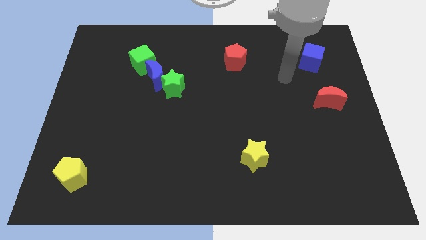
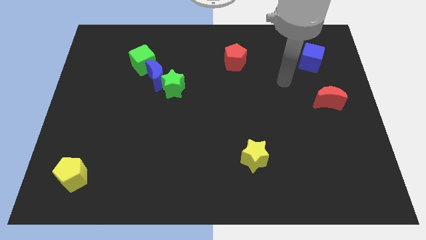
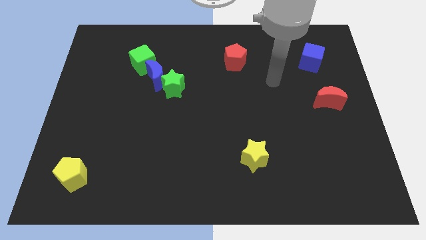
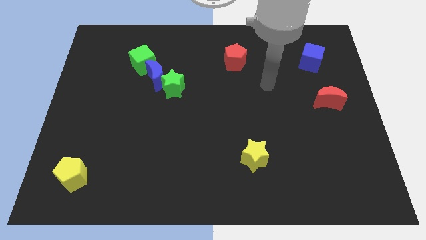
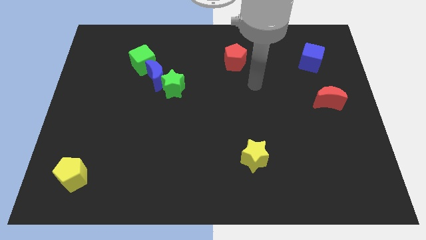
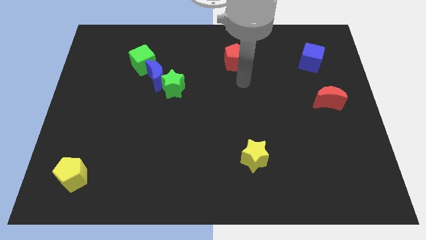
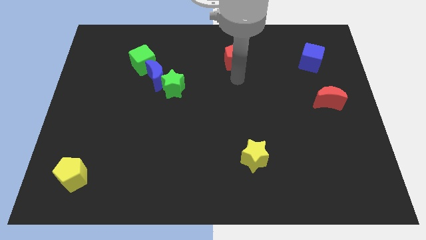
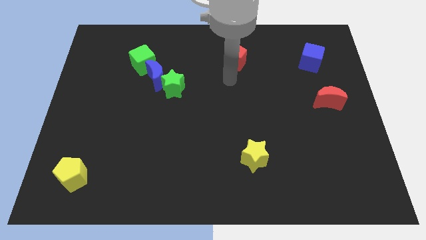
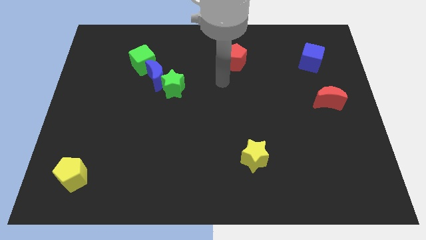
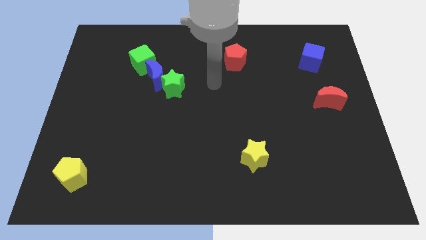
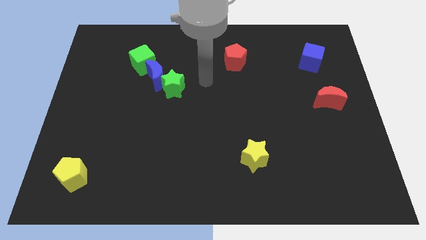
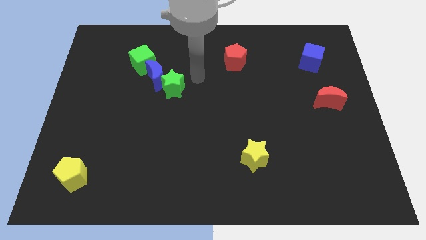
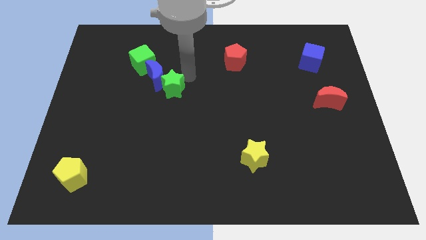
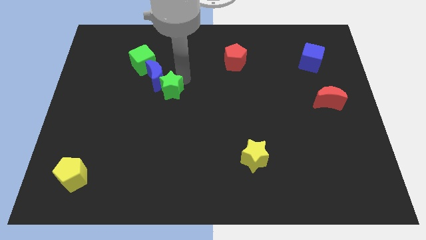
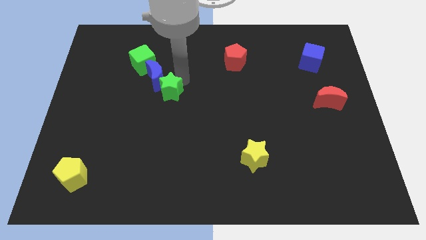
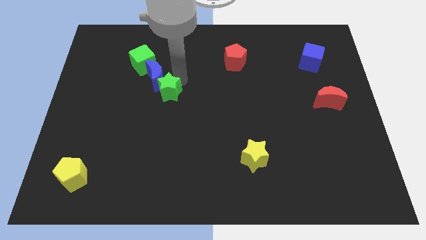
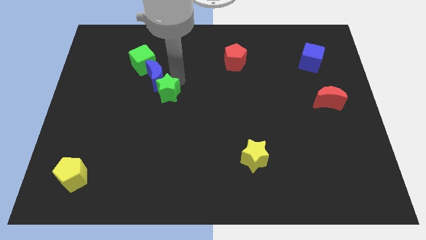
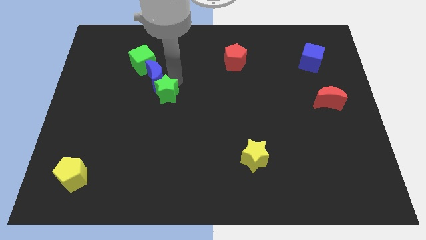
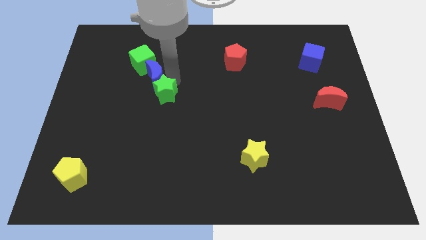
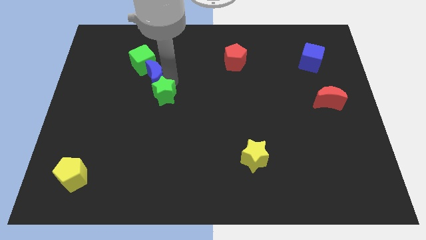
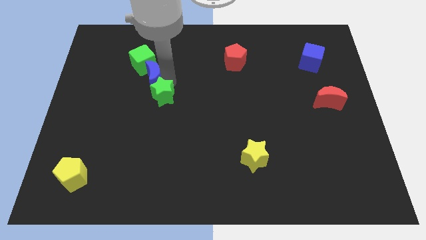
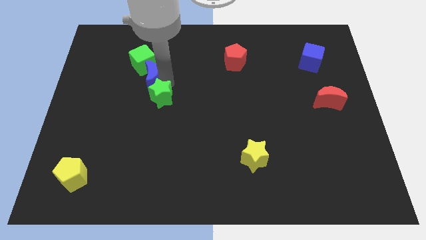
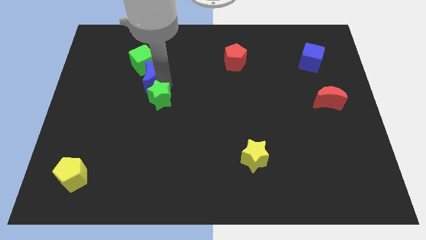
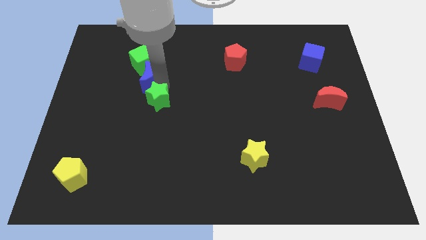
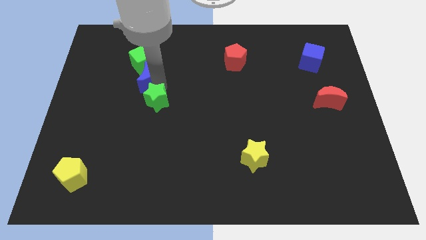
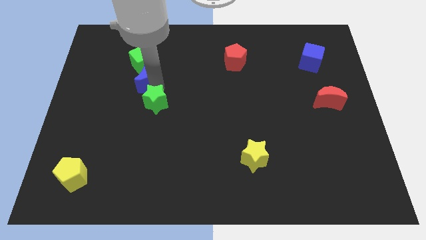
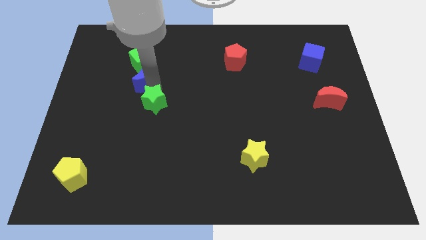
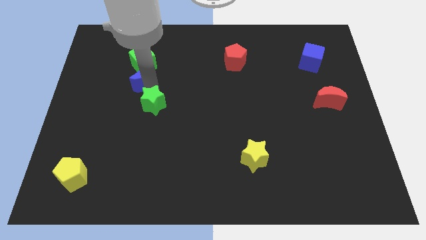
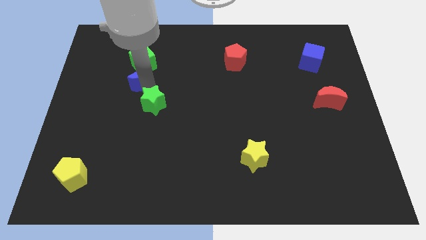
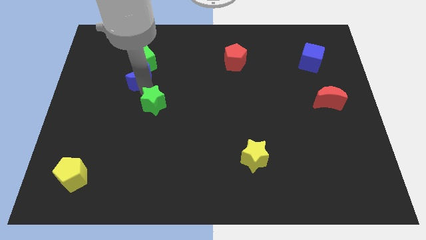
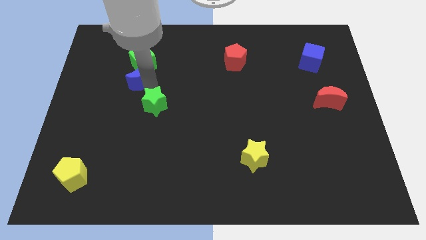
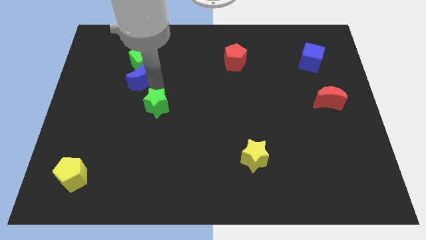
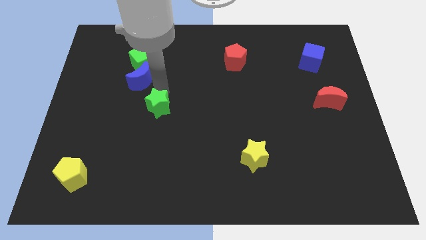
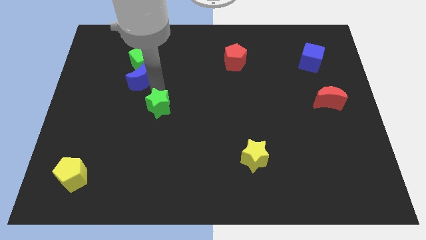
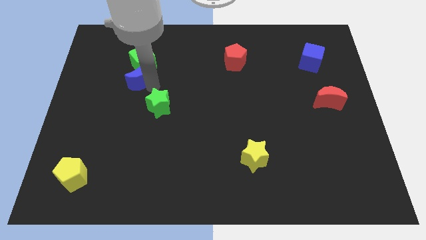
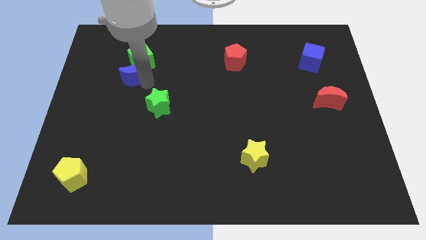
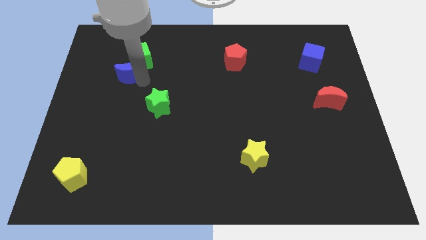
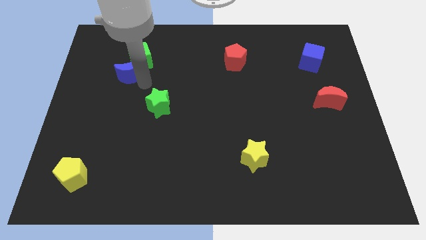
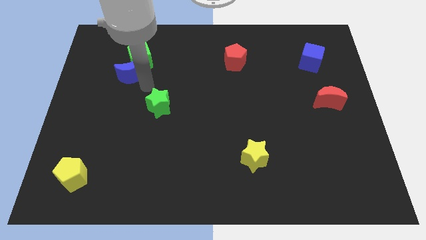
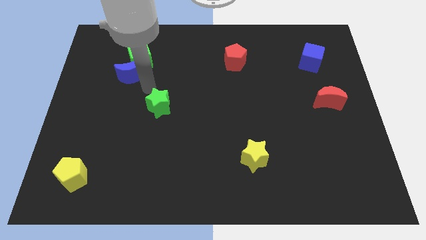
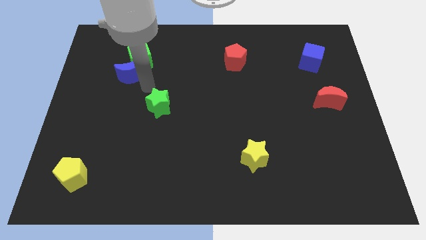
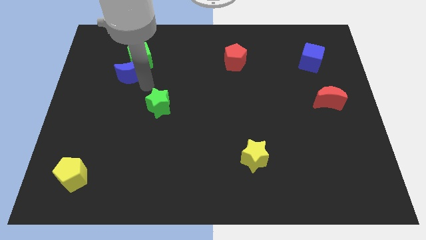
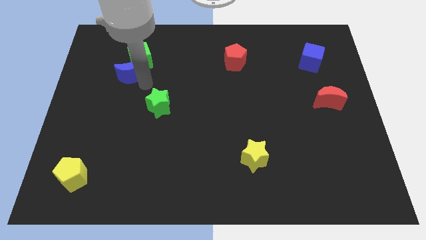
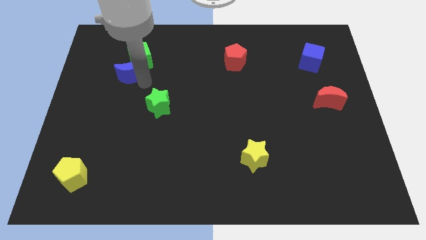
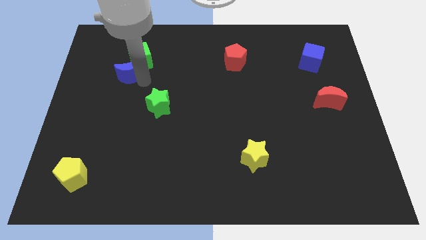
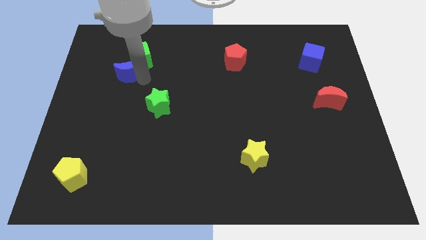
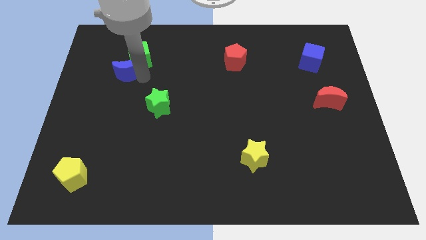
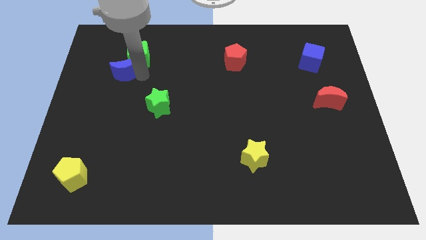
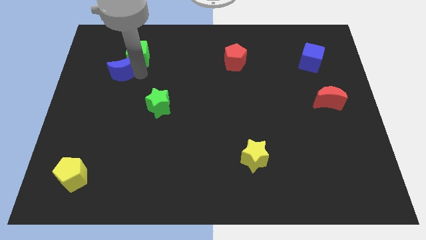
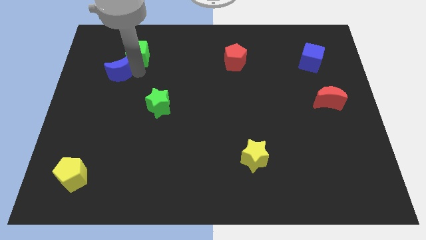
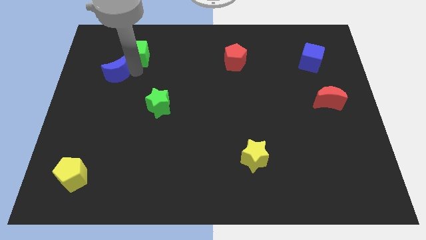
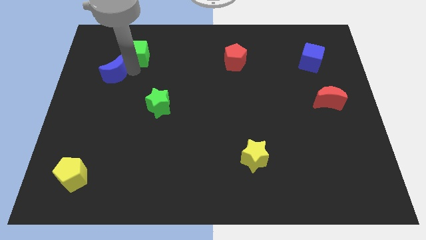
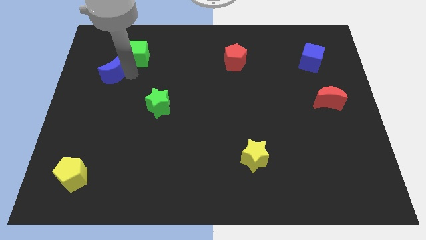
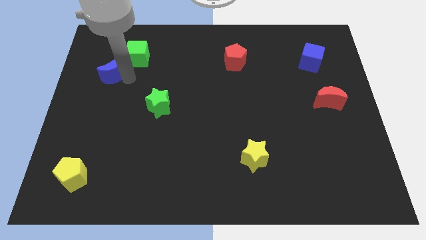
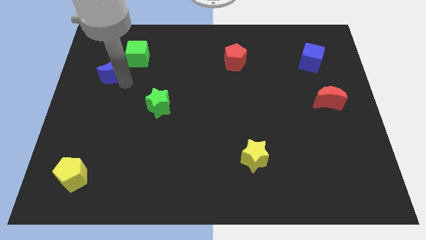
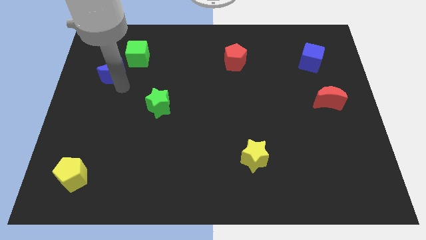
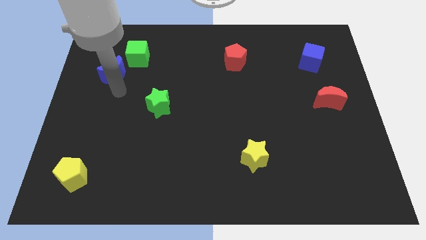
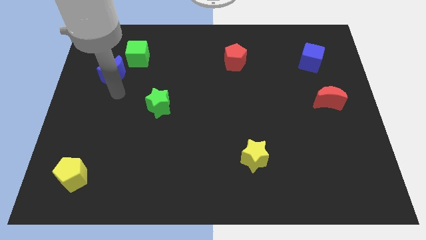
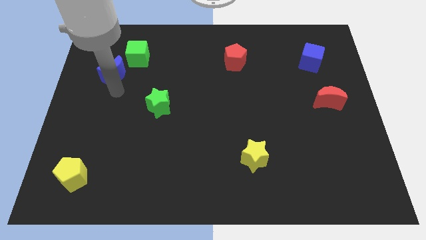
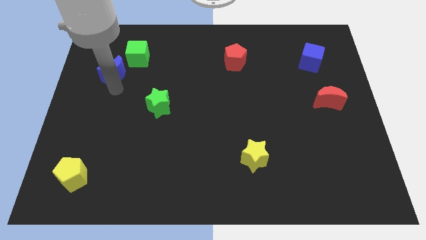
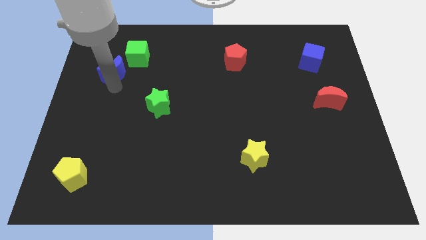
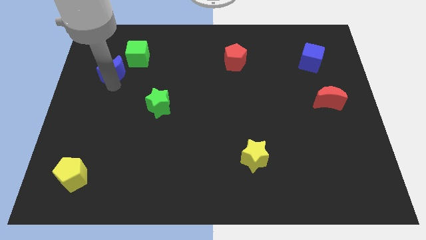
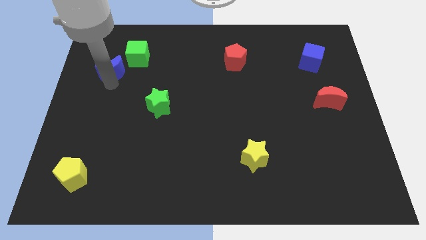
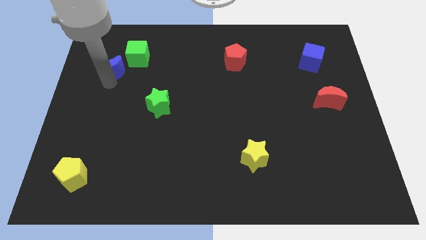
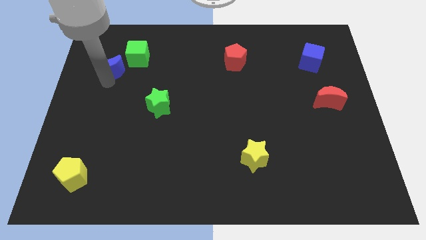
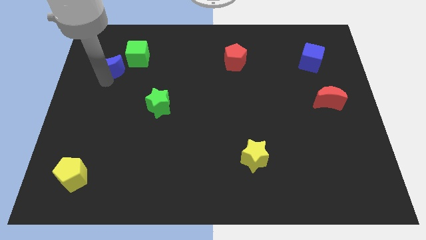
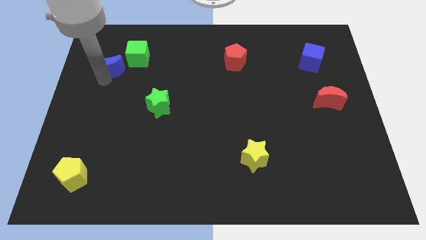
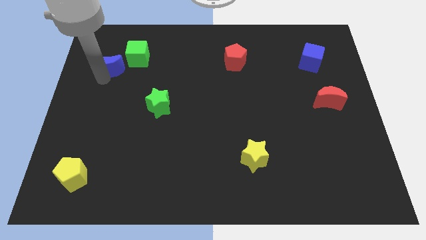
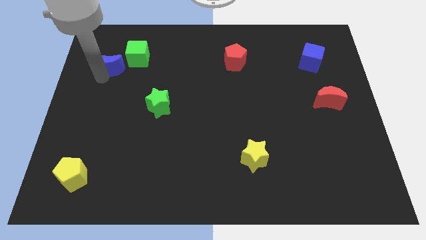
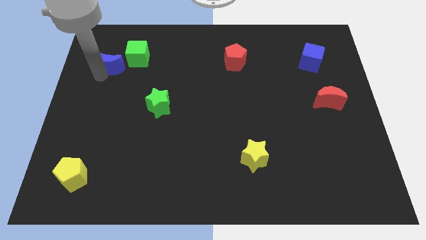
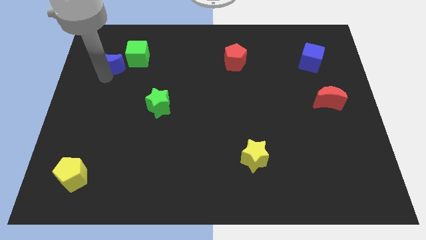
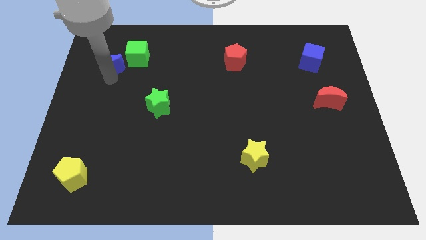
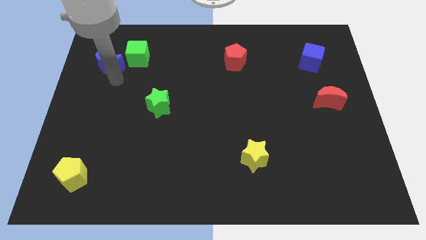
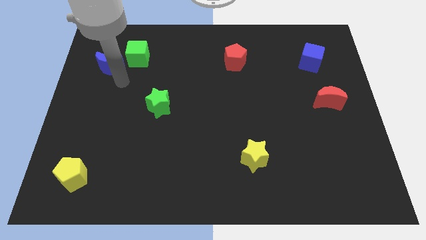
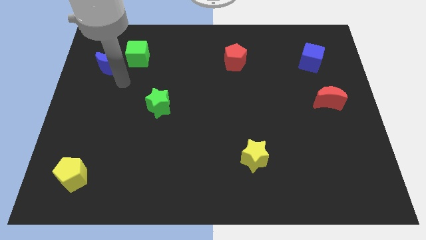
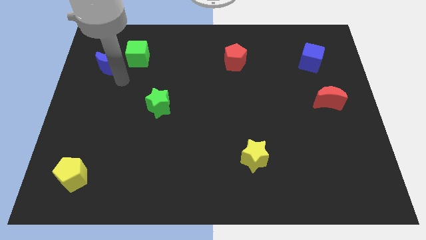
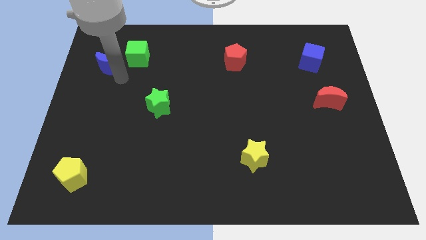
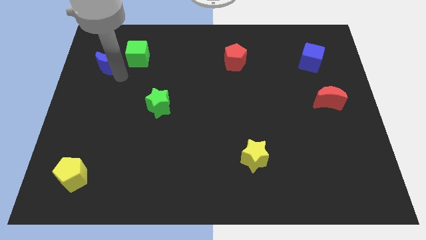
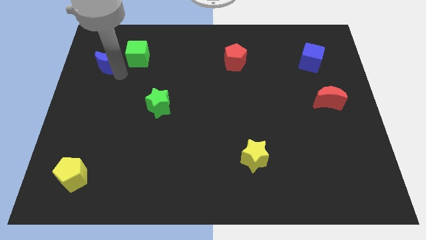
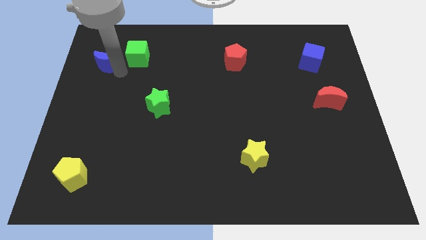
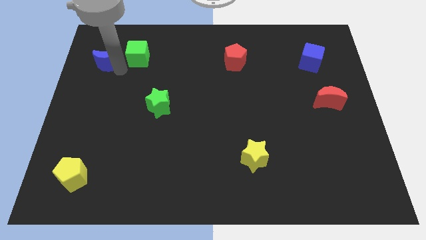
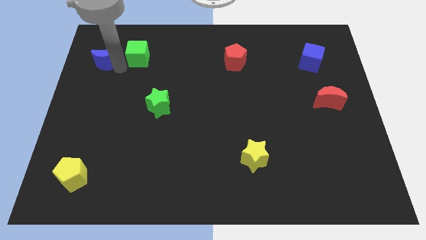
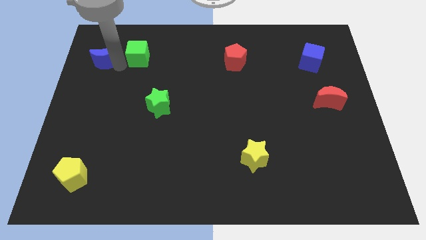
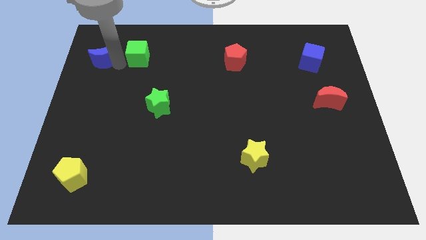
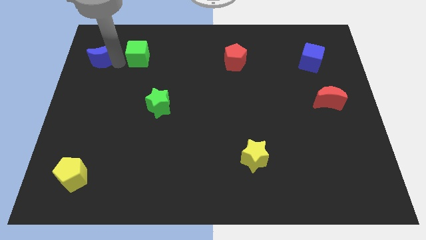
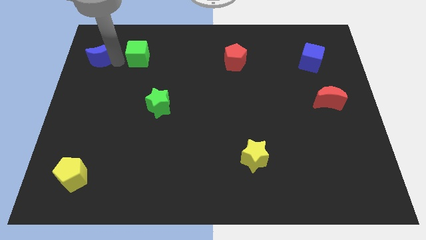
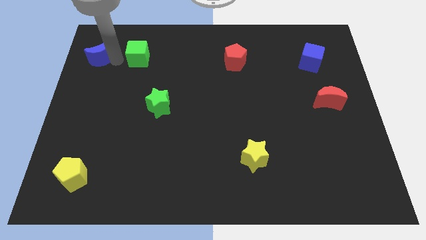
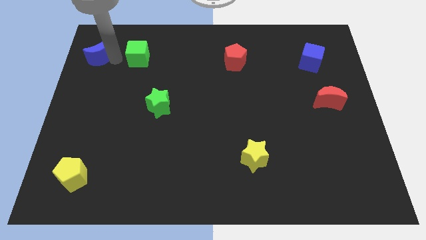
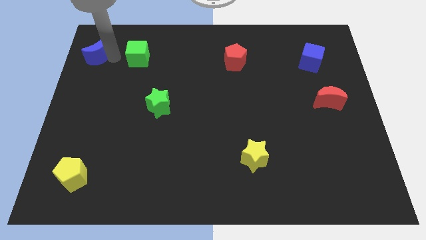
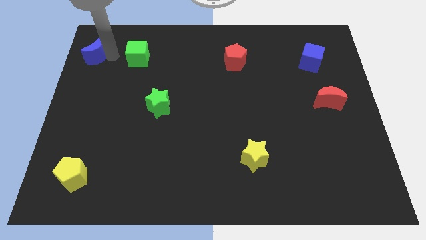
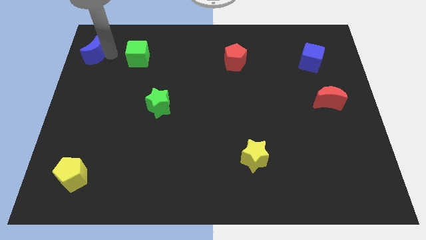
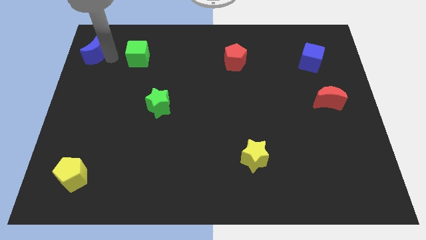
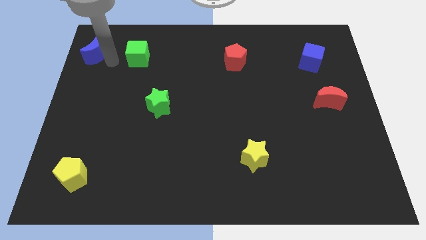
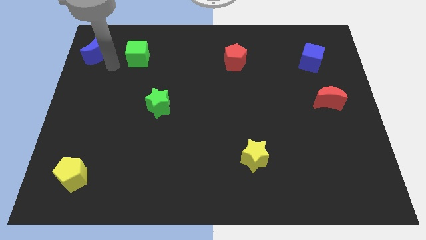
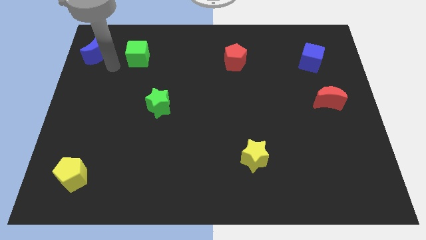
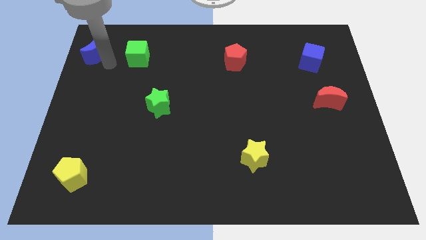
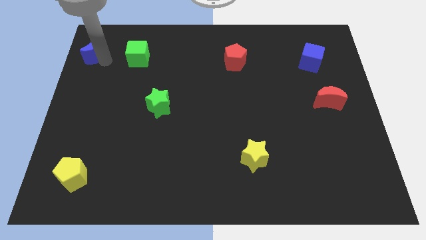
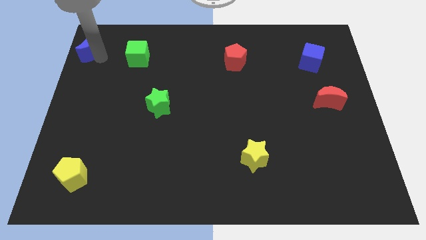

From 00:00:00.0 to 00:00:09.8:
move the blue moon to the top left
